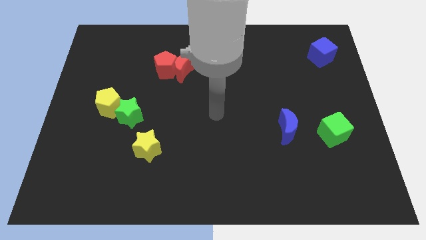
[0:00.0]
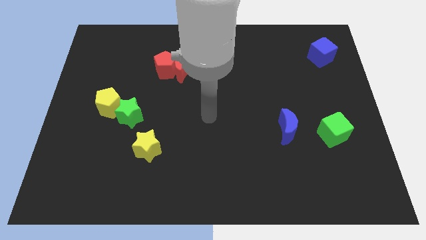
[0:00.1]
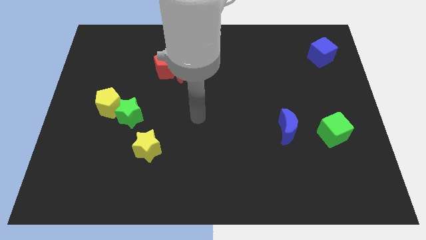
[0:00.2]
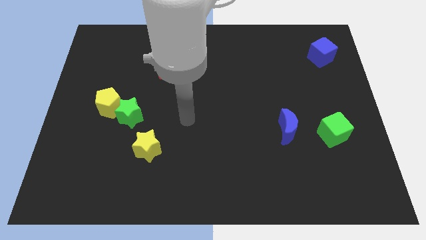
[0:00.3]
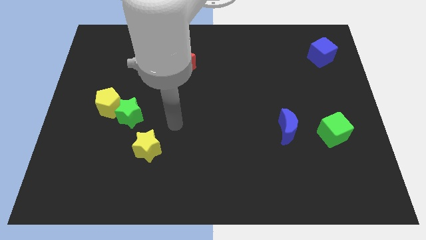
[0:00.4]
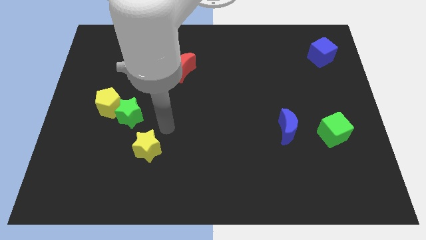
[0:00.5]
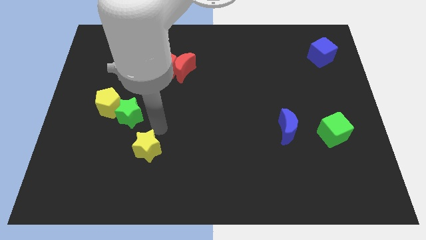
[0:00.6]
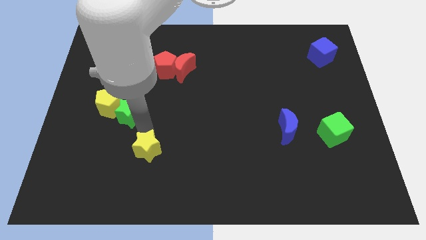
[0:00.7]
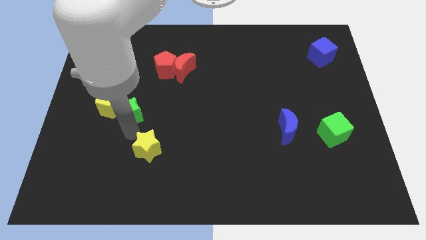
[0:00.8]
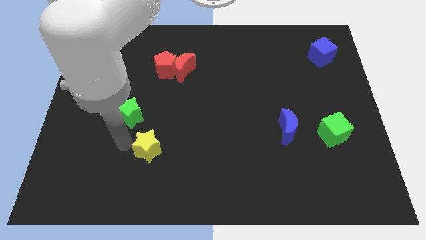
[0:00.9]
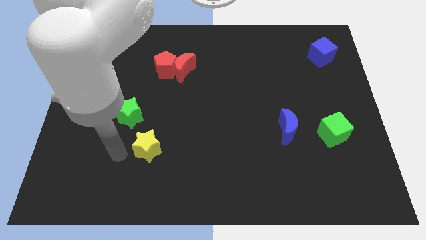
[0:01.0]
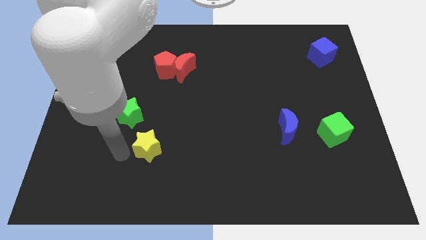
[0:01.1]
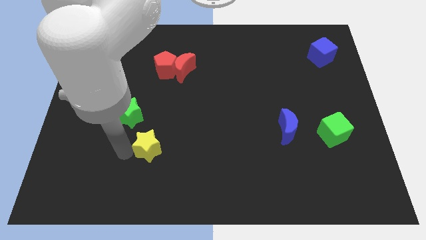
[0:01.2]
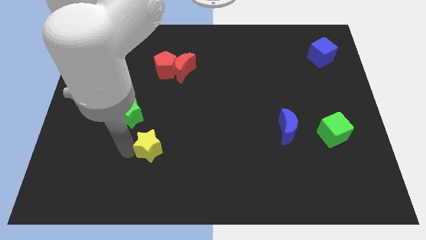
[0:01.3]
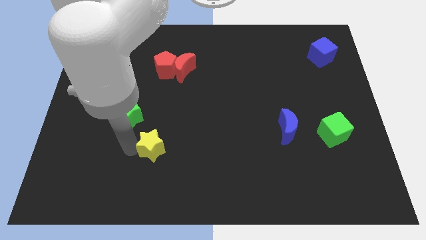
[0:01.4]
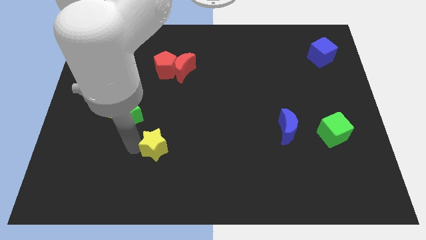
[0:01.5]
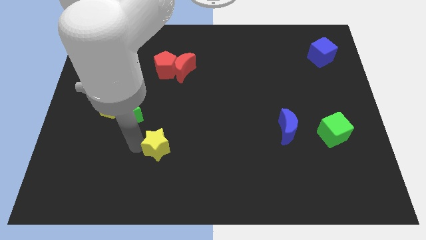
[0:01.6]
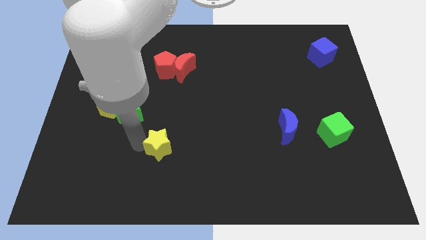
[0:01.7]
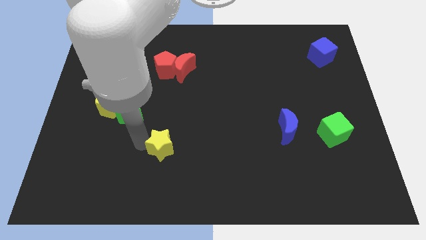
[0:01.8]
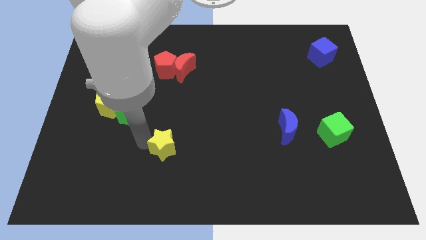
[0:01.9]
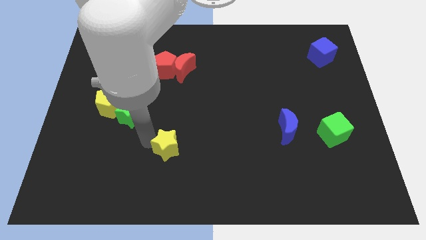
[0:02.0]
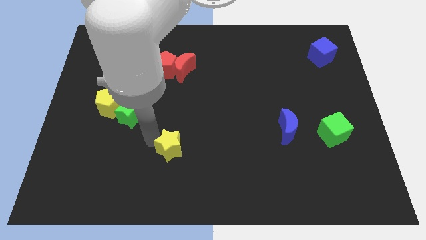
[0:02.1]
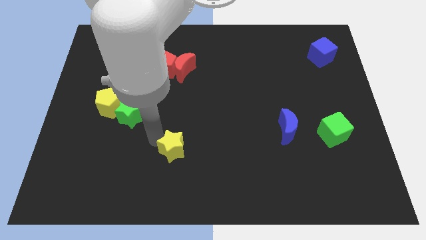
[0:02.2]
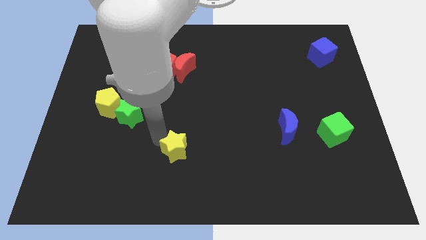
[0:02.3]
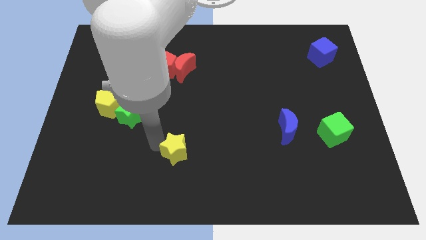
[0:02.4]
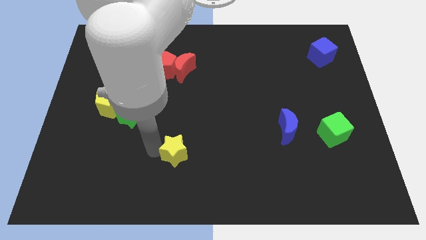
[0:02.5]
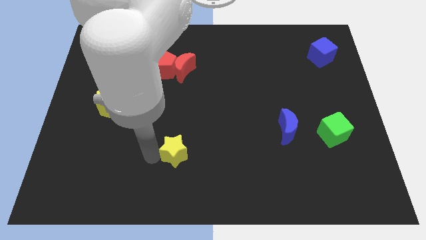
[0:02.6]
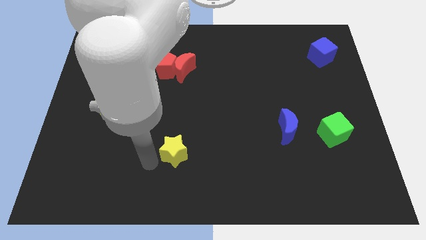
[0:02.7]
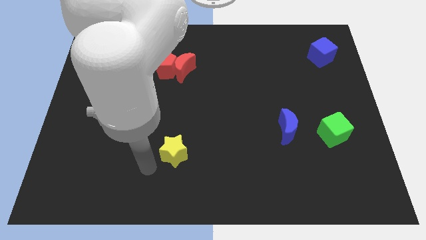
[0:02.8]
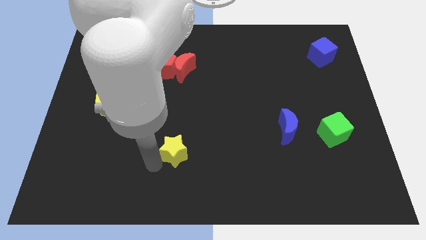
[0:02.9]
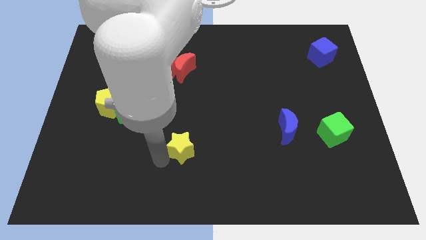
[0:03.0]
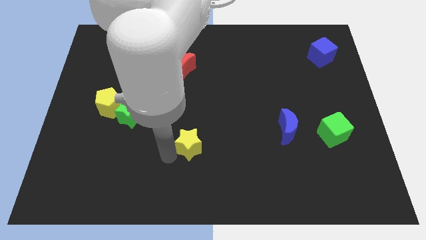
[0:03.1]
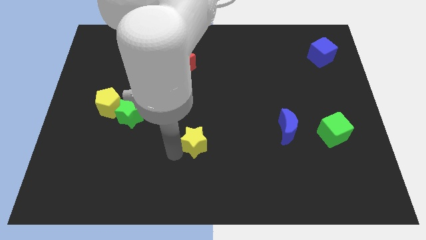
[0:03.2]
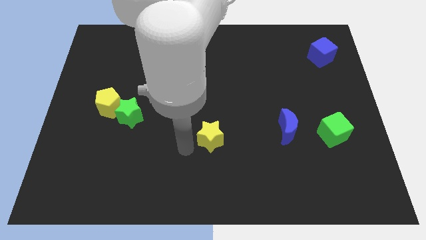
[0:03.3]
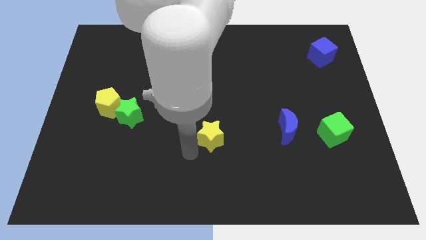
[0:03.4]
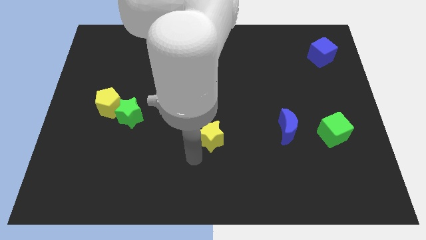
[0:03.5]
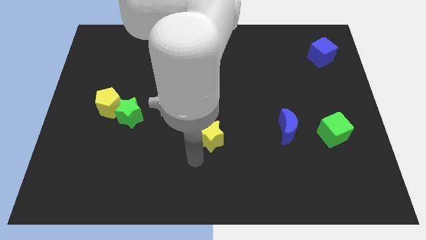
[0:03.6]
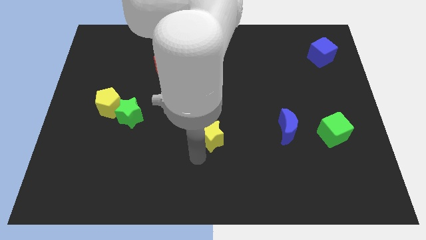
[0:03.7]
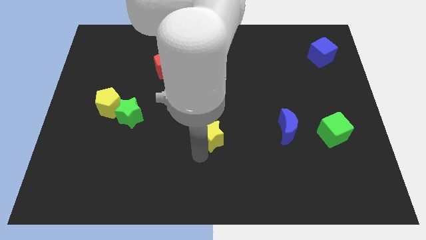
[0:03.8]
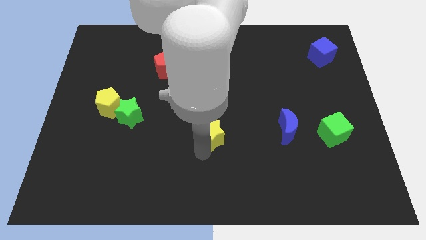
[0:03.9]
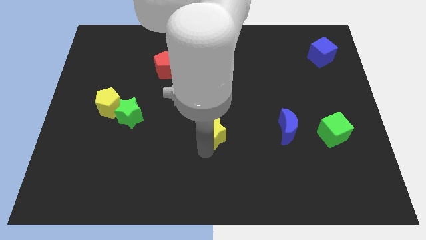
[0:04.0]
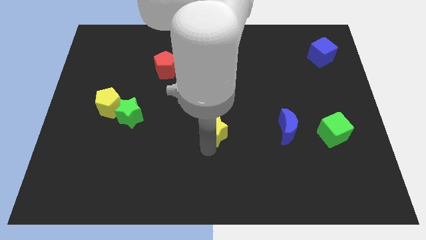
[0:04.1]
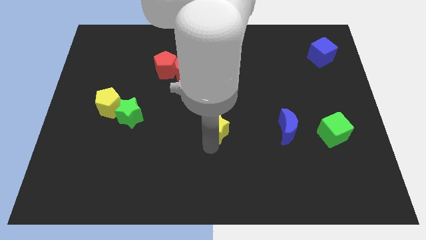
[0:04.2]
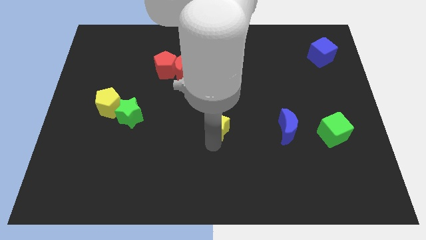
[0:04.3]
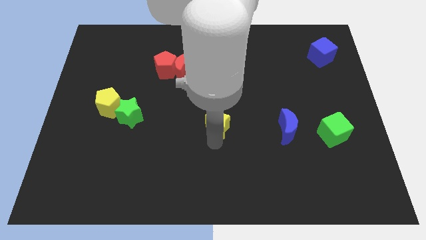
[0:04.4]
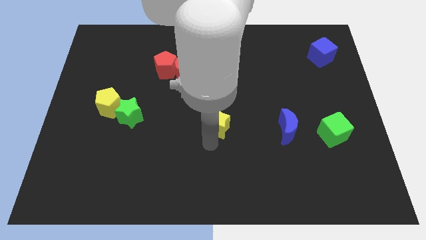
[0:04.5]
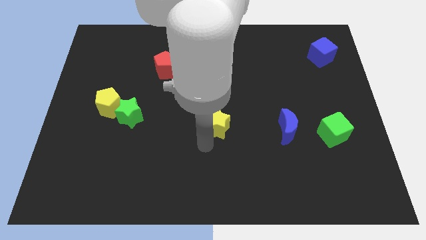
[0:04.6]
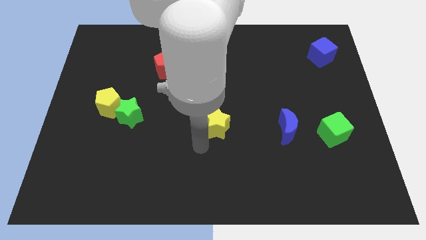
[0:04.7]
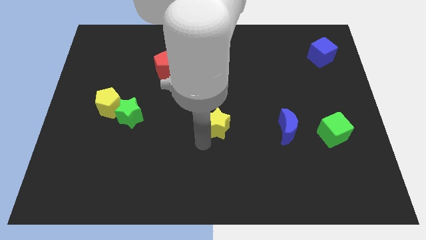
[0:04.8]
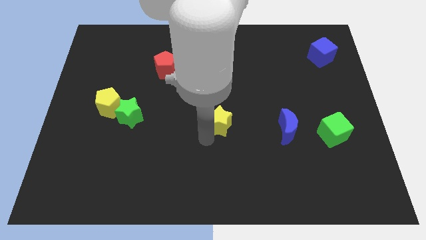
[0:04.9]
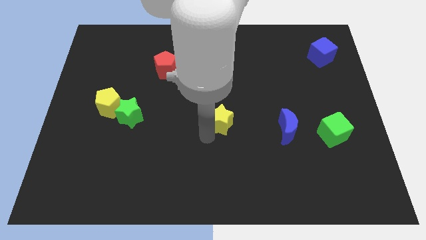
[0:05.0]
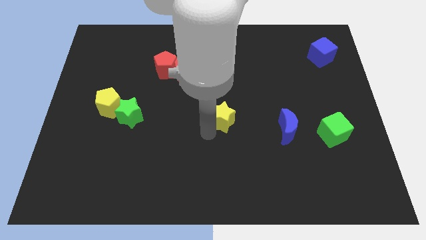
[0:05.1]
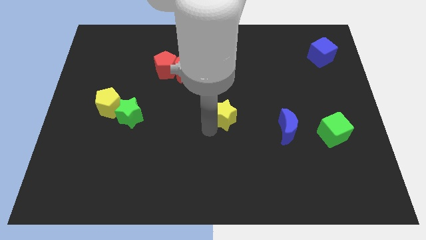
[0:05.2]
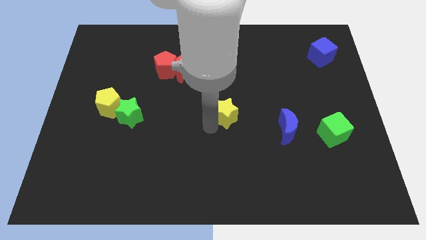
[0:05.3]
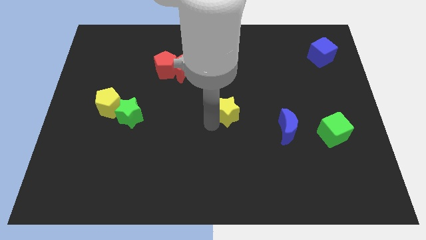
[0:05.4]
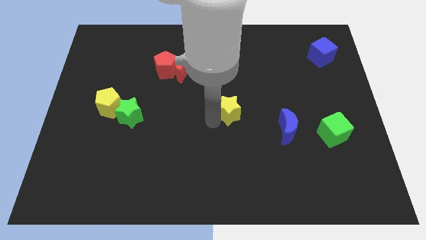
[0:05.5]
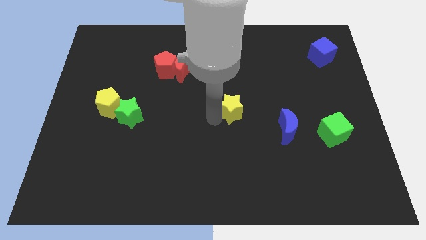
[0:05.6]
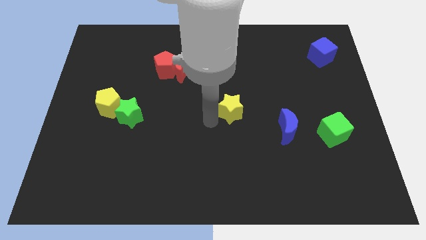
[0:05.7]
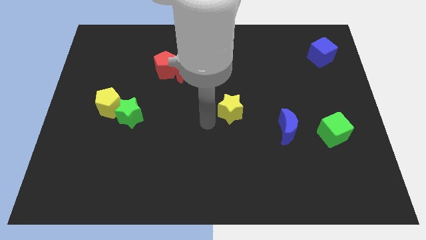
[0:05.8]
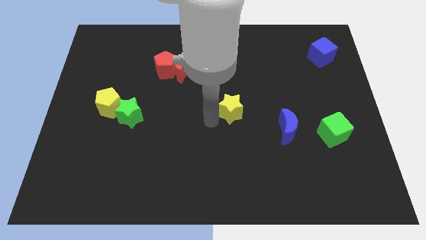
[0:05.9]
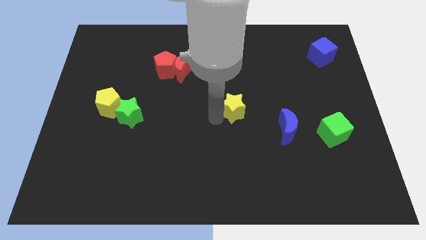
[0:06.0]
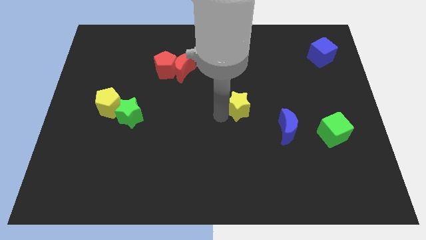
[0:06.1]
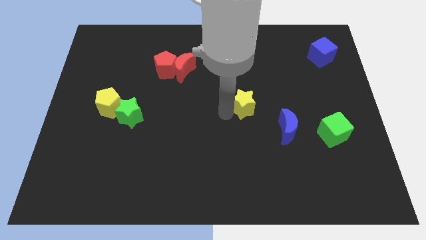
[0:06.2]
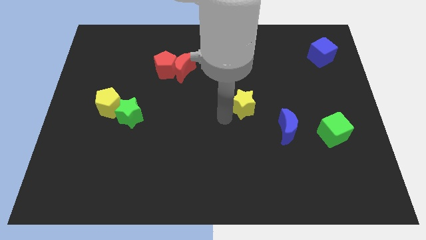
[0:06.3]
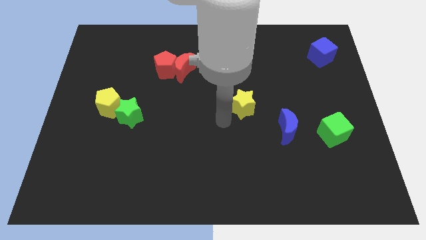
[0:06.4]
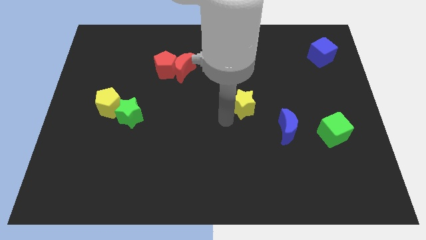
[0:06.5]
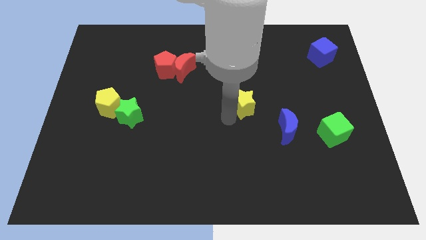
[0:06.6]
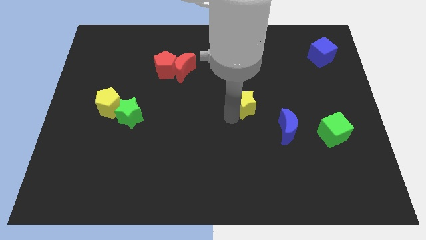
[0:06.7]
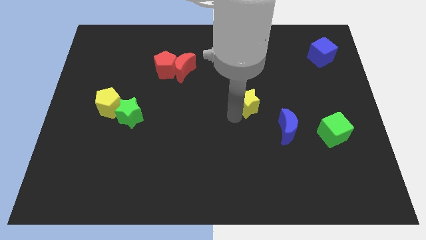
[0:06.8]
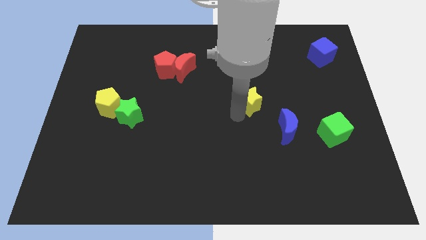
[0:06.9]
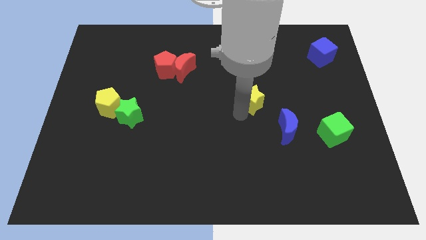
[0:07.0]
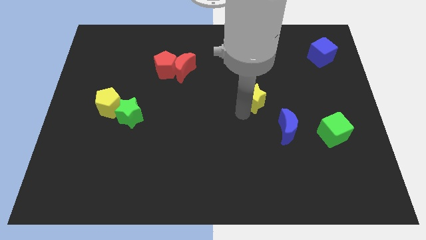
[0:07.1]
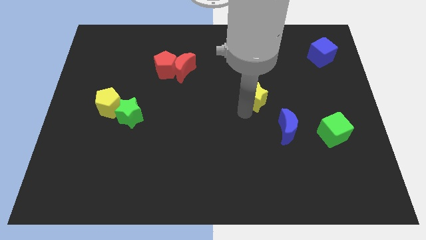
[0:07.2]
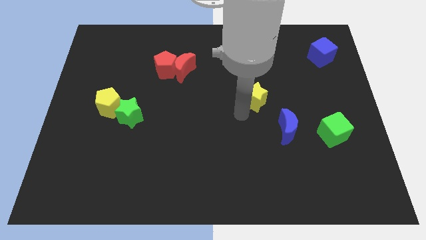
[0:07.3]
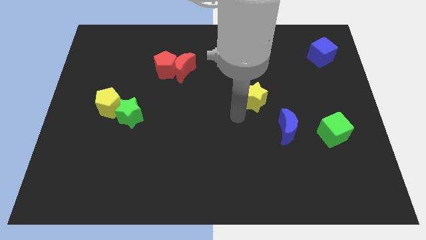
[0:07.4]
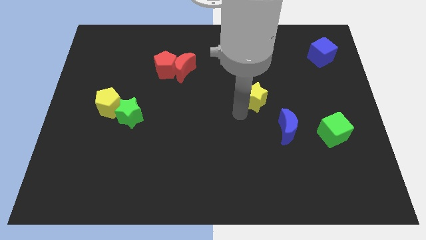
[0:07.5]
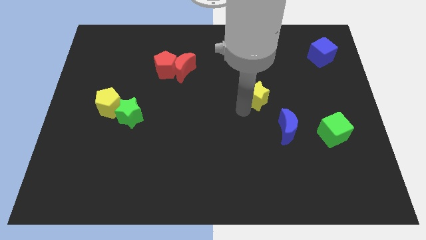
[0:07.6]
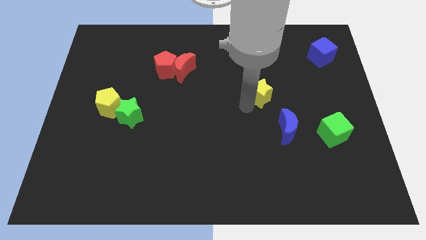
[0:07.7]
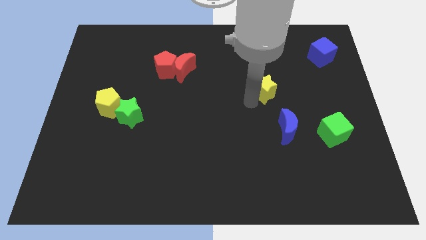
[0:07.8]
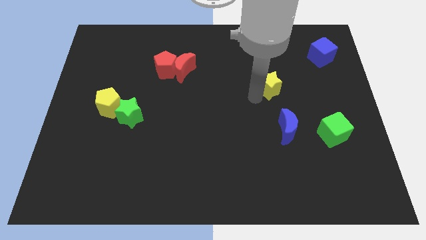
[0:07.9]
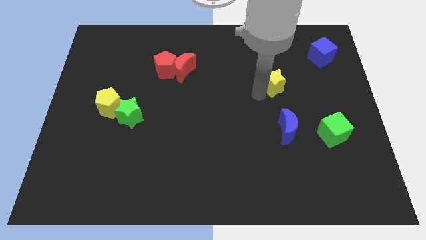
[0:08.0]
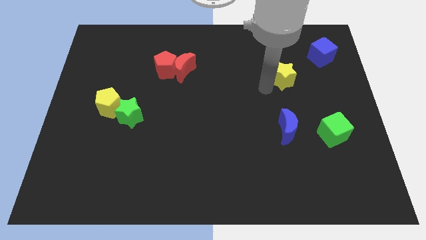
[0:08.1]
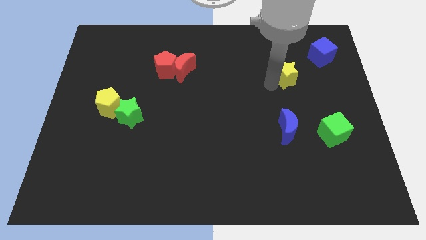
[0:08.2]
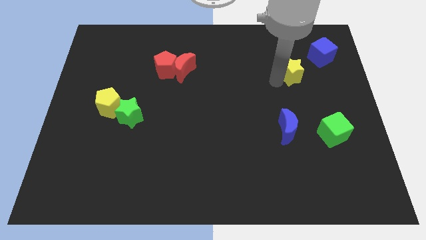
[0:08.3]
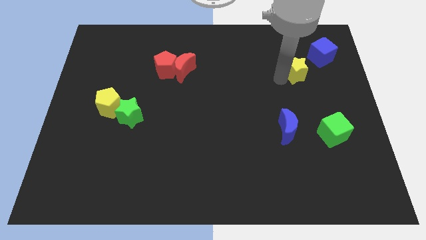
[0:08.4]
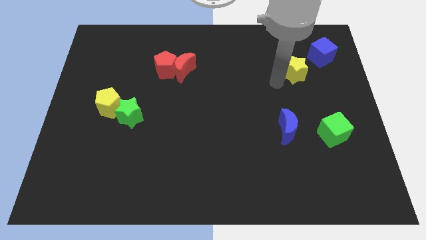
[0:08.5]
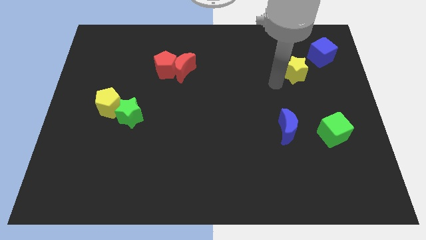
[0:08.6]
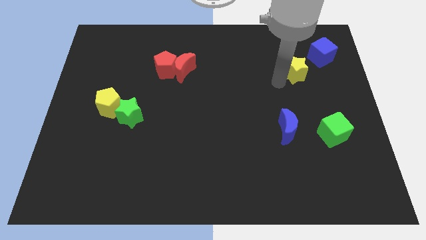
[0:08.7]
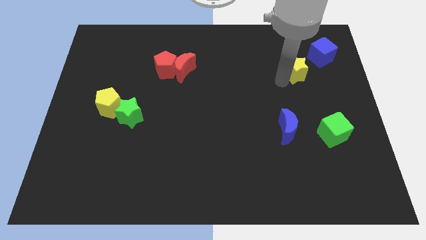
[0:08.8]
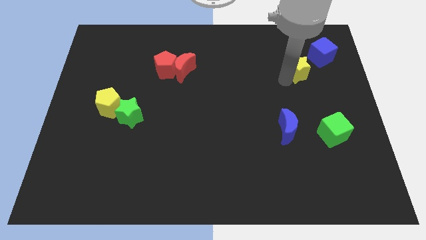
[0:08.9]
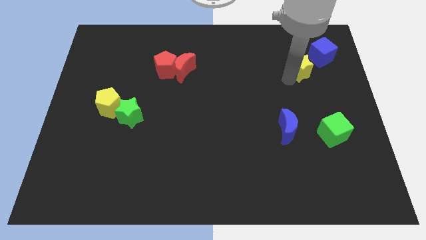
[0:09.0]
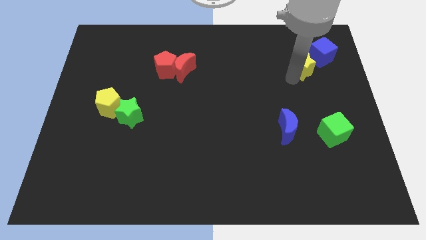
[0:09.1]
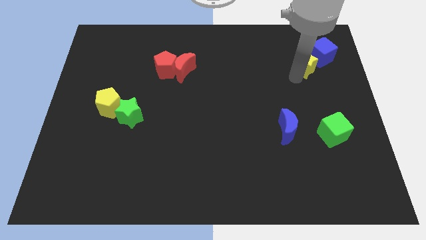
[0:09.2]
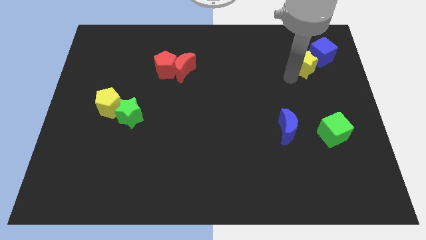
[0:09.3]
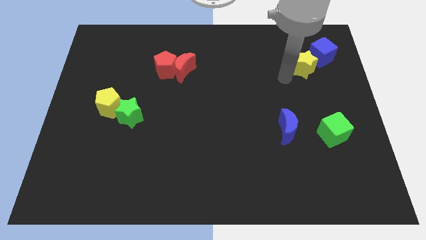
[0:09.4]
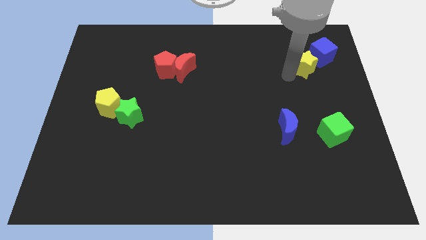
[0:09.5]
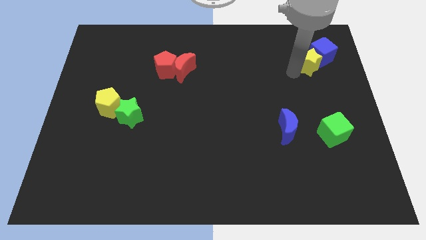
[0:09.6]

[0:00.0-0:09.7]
slide the yellow star to the blue cube
